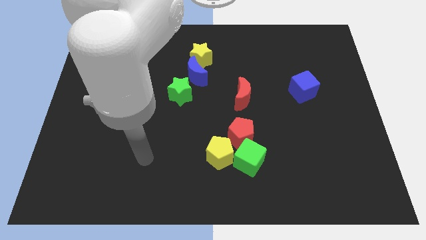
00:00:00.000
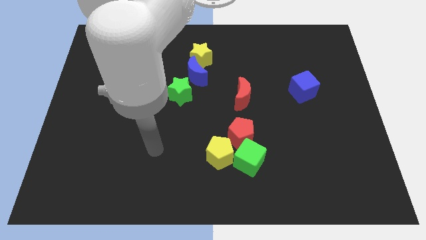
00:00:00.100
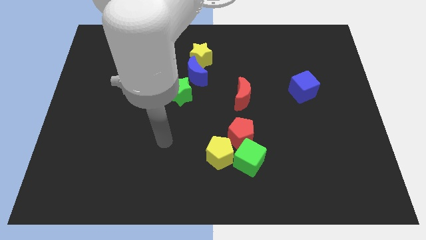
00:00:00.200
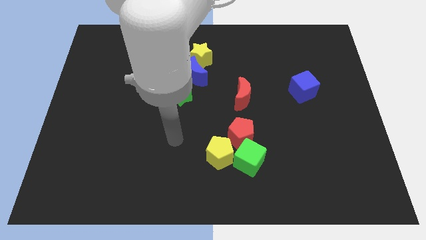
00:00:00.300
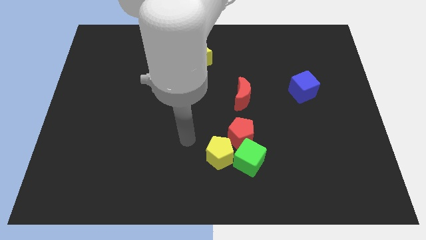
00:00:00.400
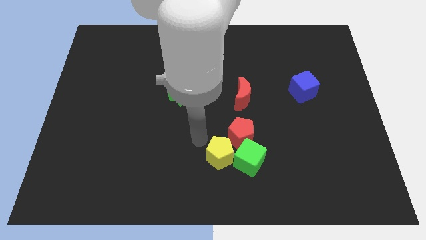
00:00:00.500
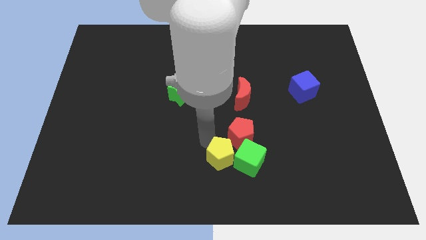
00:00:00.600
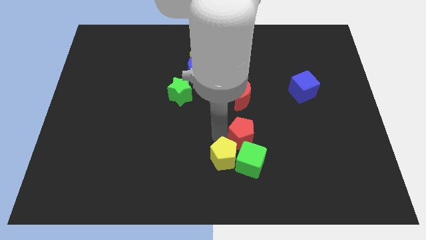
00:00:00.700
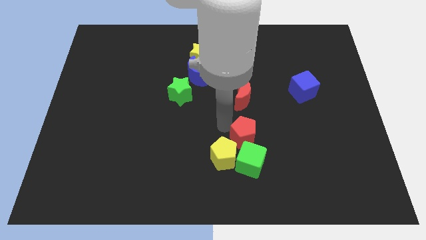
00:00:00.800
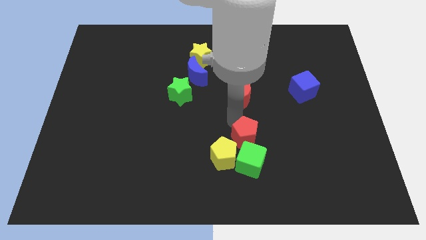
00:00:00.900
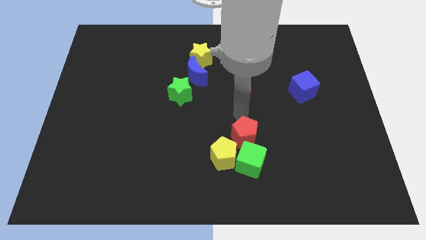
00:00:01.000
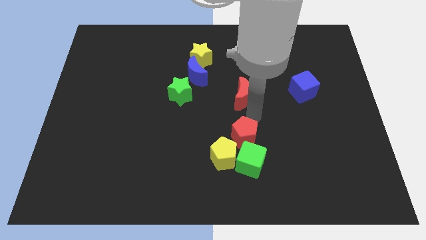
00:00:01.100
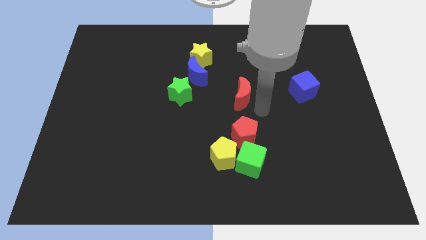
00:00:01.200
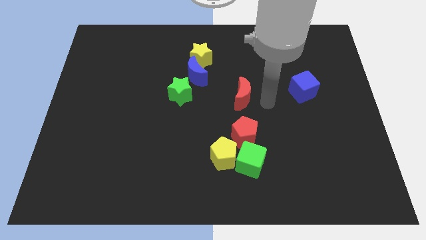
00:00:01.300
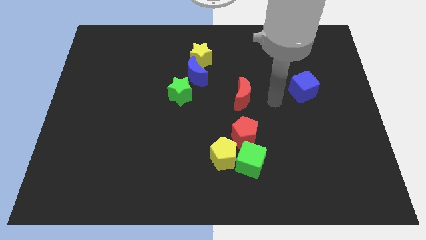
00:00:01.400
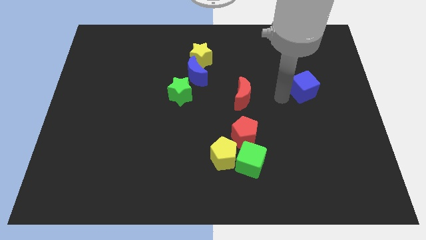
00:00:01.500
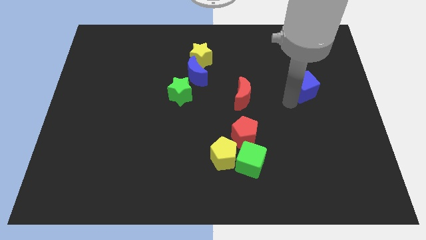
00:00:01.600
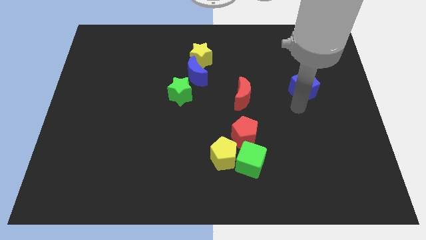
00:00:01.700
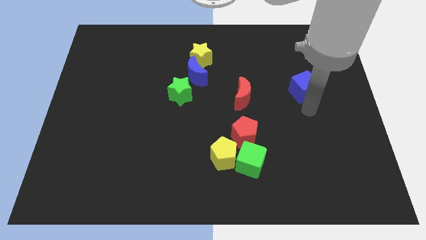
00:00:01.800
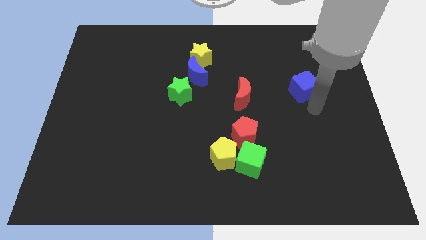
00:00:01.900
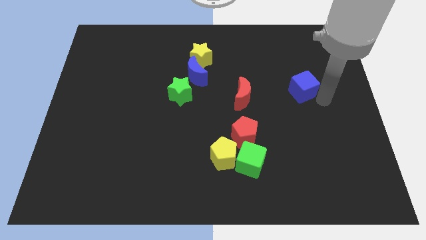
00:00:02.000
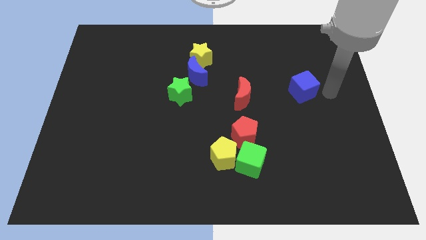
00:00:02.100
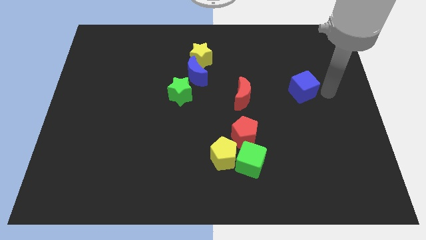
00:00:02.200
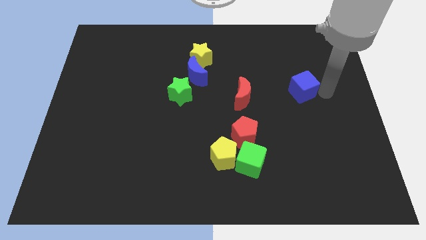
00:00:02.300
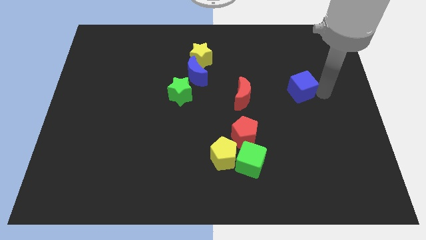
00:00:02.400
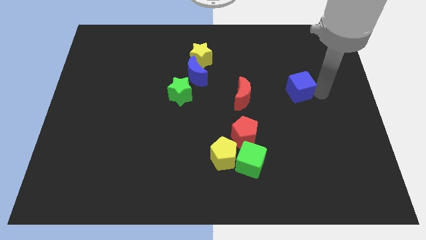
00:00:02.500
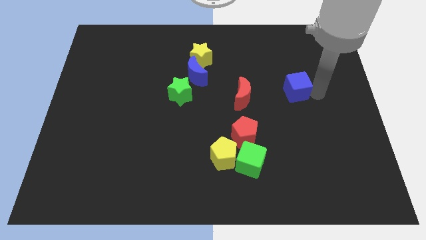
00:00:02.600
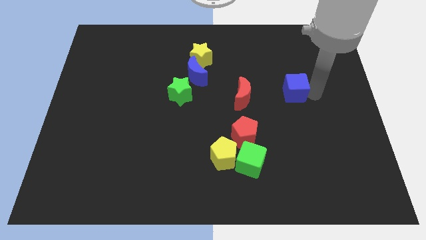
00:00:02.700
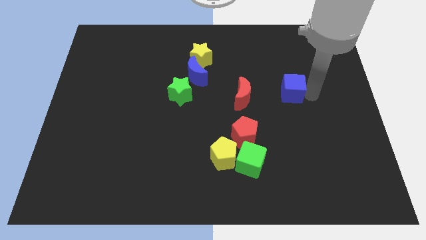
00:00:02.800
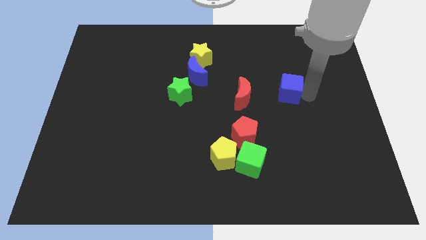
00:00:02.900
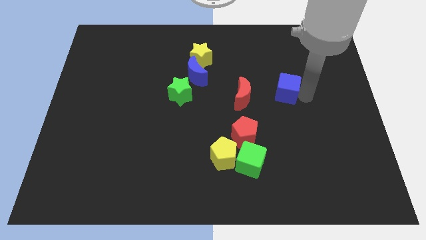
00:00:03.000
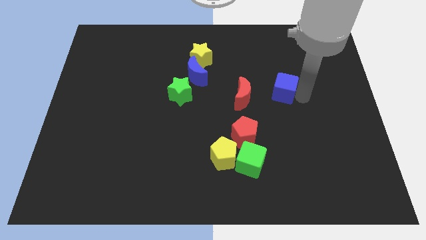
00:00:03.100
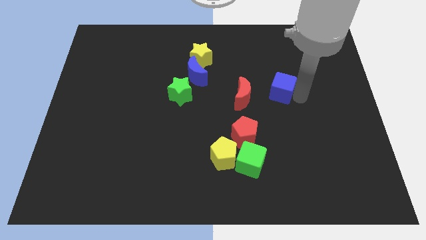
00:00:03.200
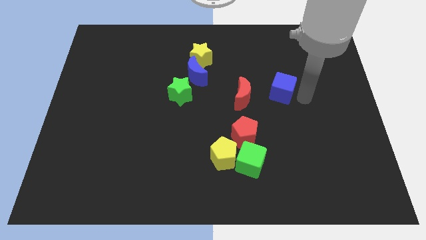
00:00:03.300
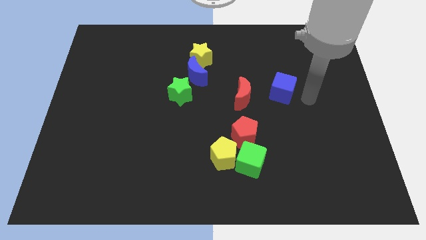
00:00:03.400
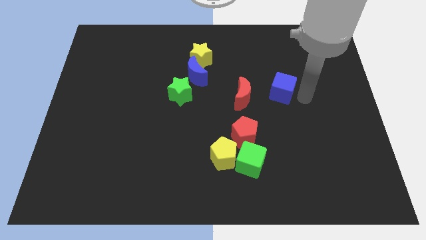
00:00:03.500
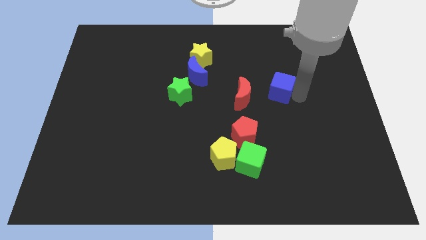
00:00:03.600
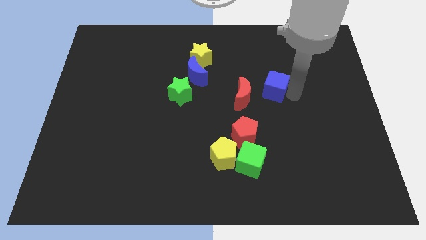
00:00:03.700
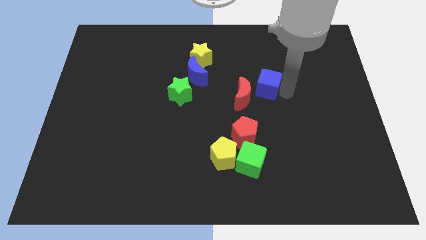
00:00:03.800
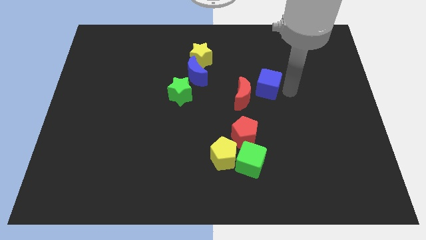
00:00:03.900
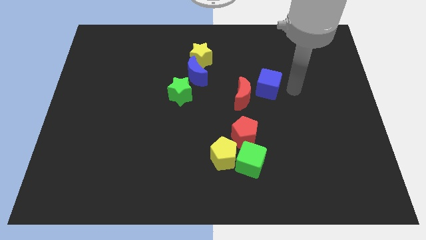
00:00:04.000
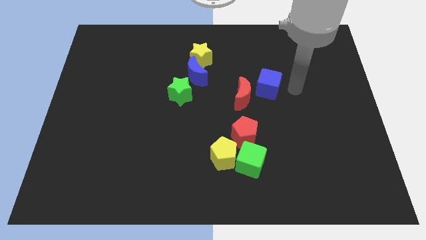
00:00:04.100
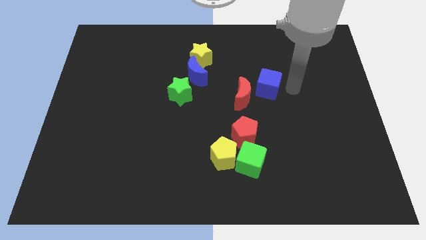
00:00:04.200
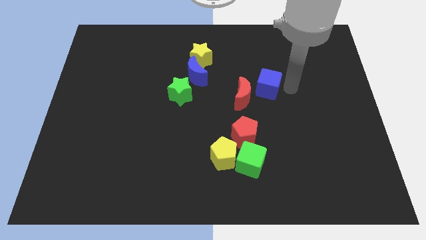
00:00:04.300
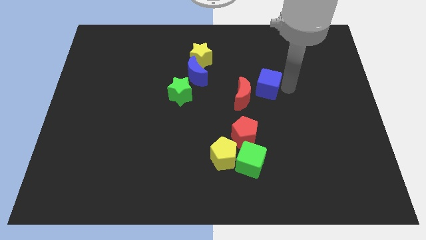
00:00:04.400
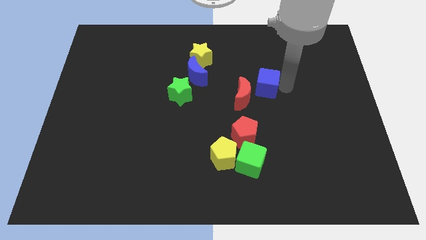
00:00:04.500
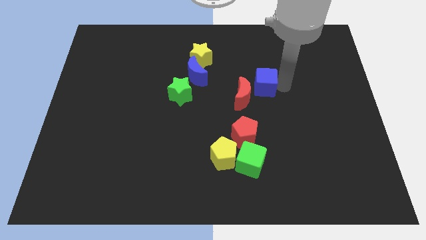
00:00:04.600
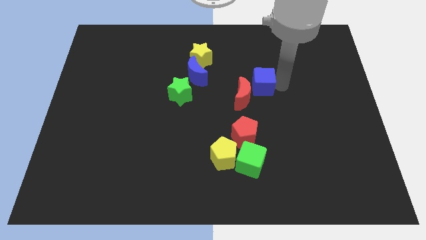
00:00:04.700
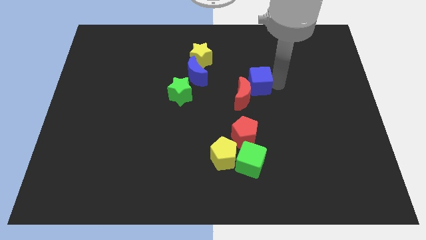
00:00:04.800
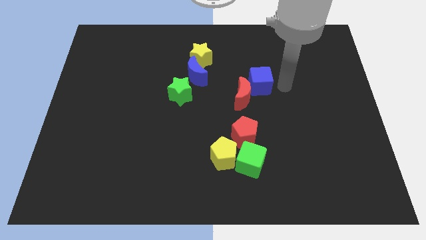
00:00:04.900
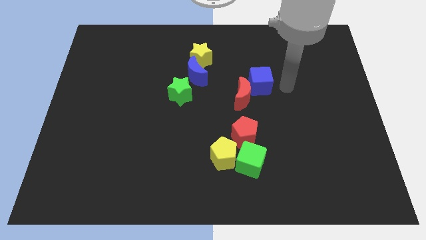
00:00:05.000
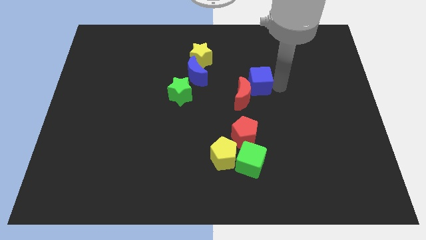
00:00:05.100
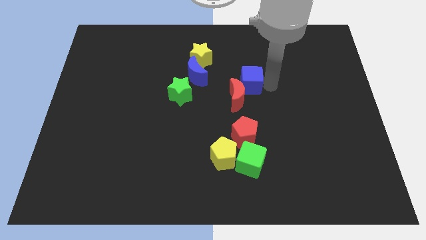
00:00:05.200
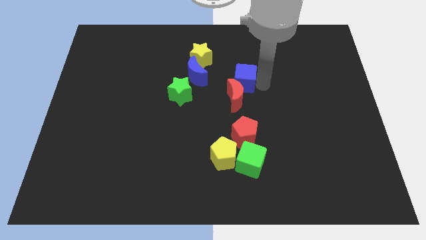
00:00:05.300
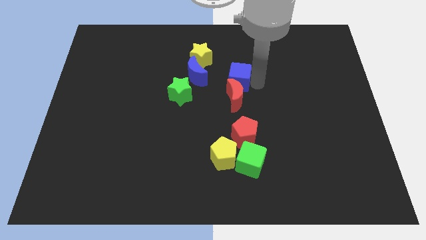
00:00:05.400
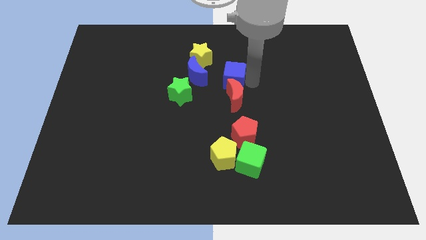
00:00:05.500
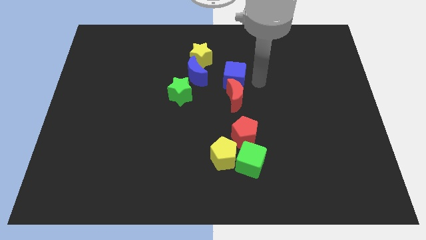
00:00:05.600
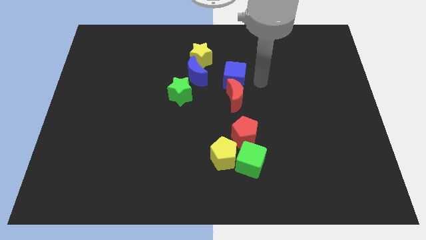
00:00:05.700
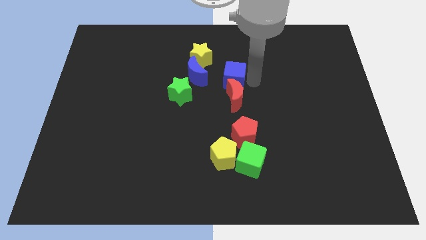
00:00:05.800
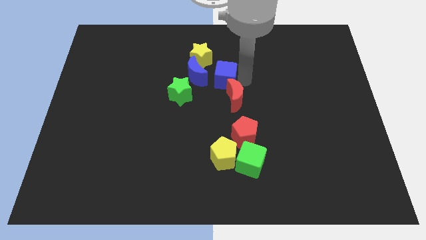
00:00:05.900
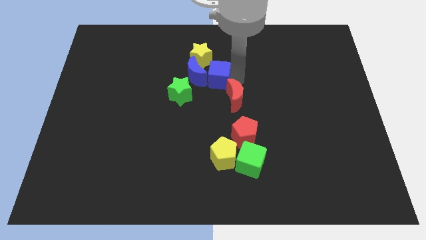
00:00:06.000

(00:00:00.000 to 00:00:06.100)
put the blue cube close to the blue moon

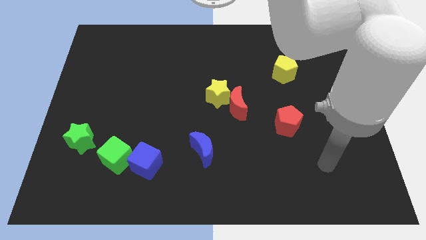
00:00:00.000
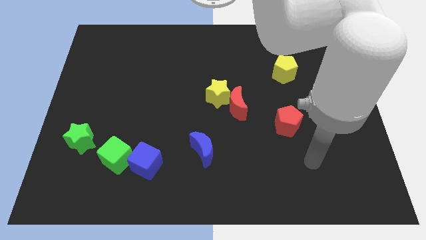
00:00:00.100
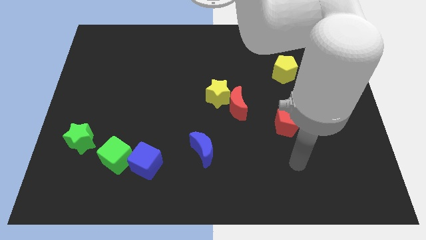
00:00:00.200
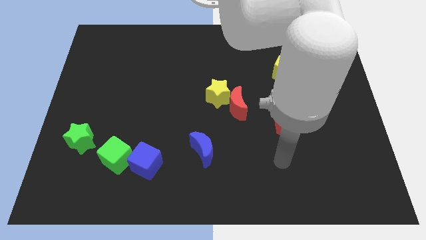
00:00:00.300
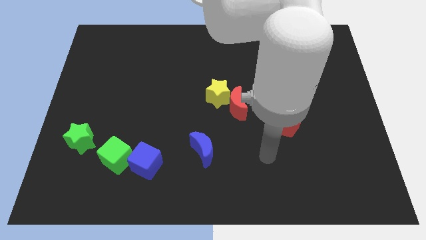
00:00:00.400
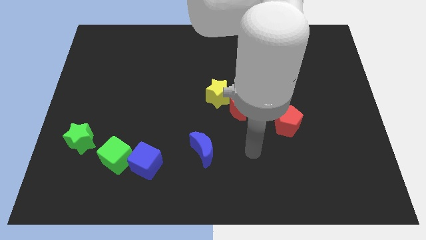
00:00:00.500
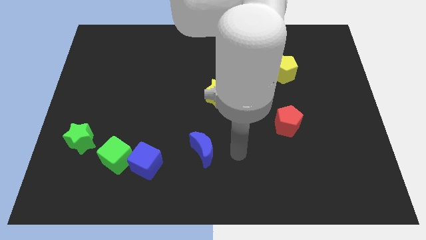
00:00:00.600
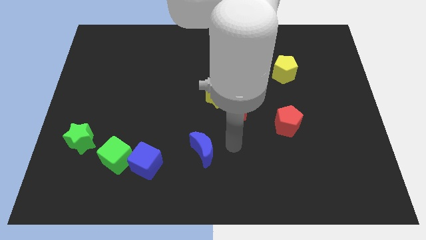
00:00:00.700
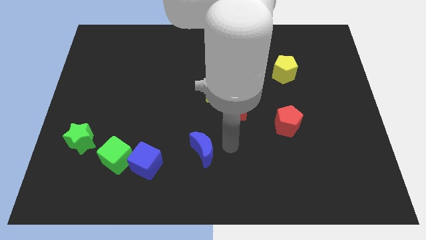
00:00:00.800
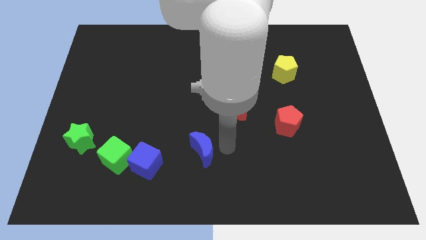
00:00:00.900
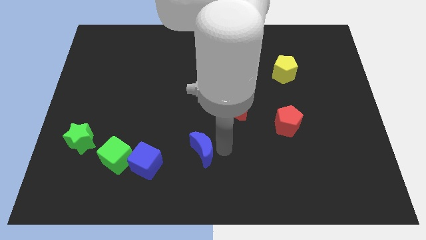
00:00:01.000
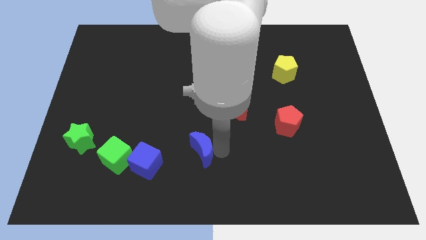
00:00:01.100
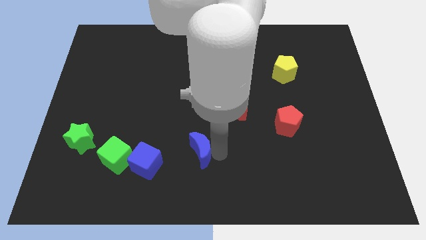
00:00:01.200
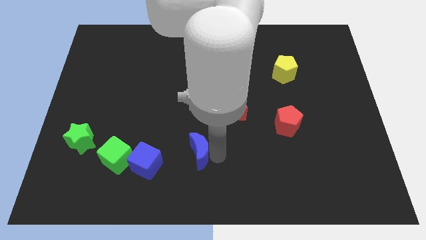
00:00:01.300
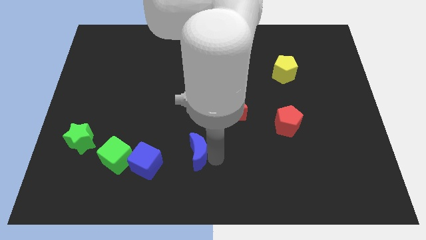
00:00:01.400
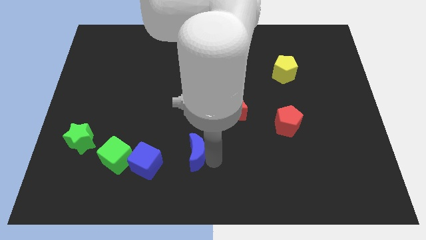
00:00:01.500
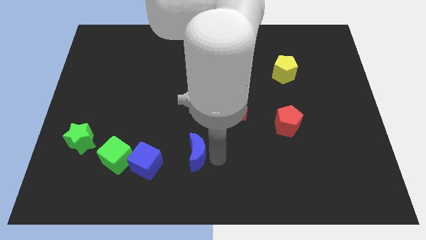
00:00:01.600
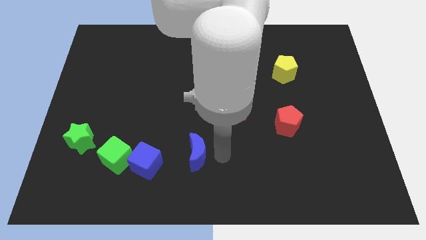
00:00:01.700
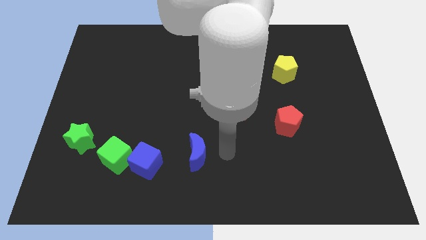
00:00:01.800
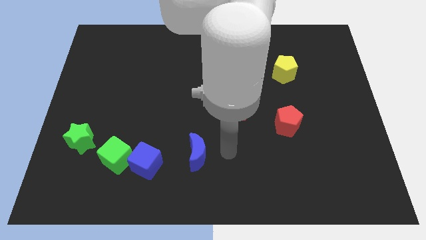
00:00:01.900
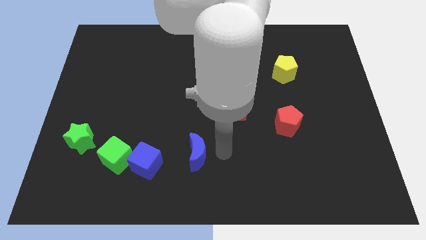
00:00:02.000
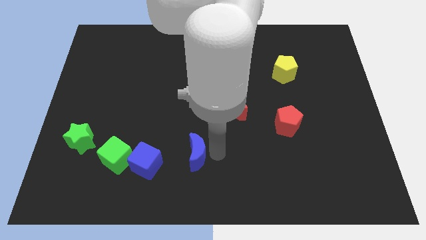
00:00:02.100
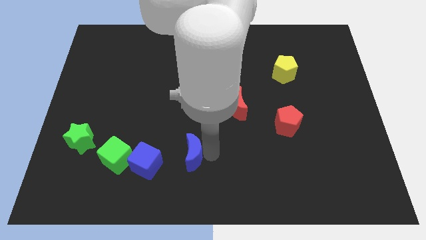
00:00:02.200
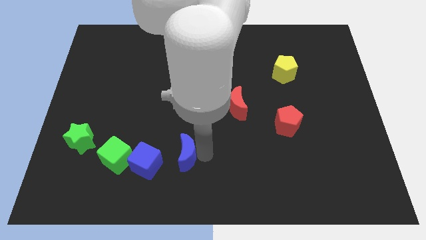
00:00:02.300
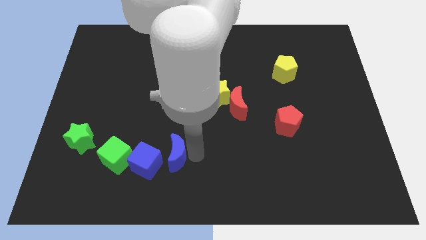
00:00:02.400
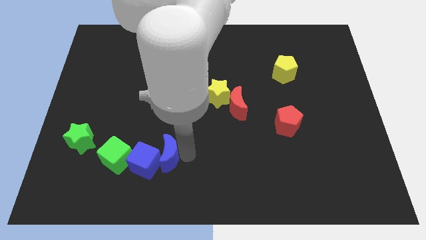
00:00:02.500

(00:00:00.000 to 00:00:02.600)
put the blue moon towards the blue cube
